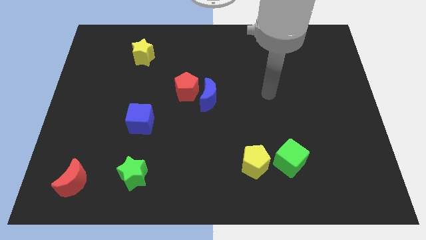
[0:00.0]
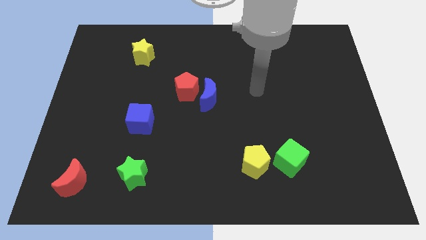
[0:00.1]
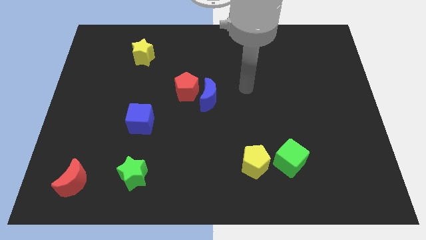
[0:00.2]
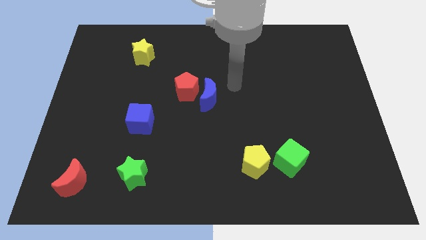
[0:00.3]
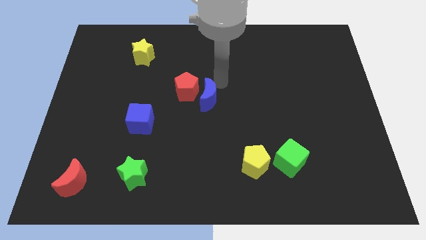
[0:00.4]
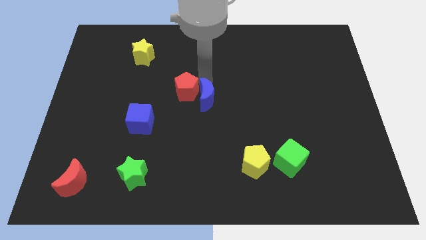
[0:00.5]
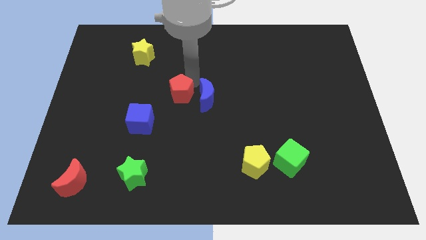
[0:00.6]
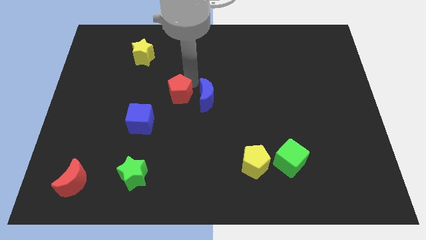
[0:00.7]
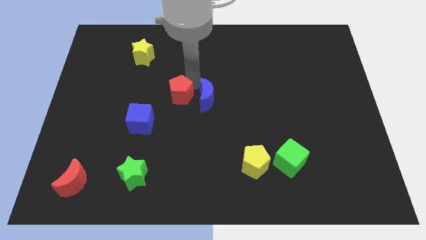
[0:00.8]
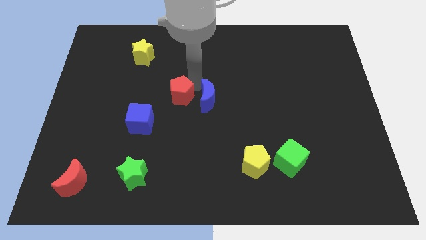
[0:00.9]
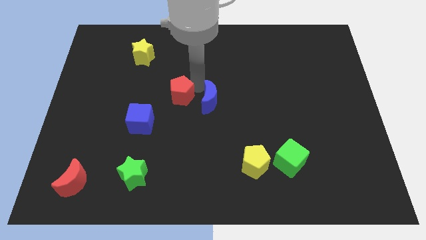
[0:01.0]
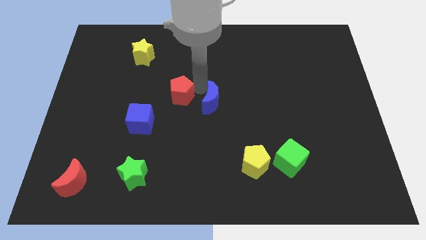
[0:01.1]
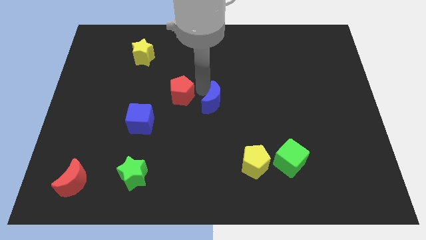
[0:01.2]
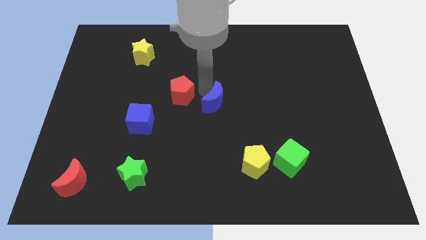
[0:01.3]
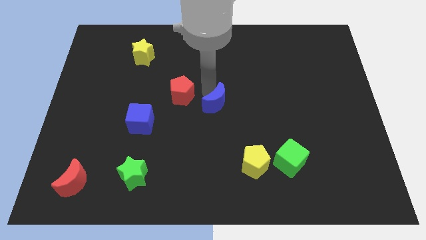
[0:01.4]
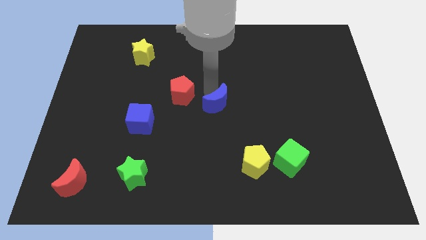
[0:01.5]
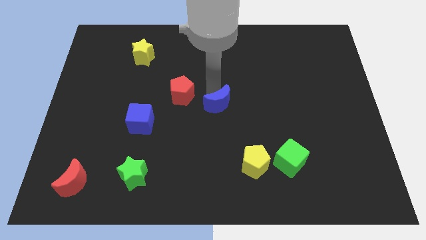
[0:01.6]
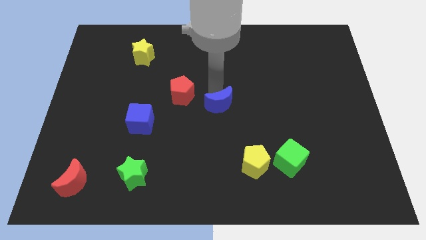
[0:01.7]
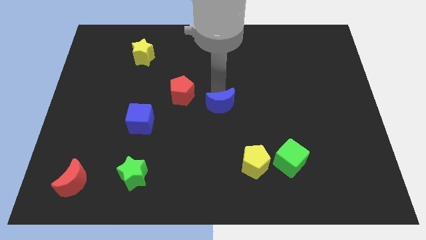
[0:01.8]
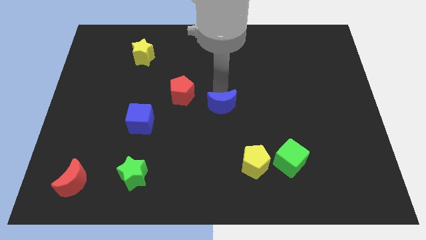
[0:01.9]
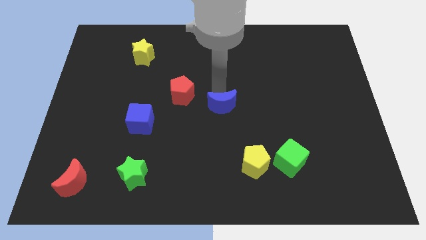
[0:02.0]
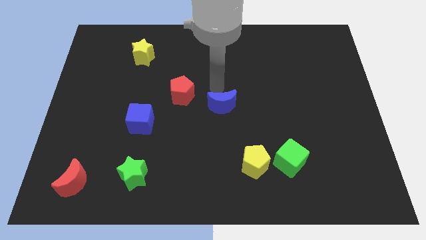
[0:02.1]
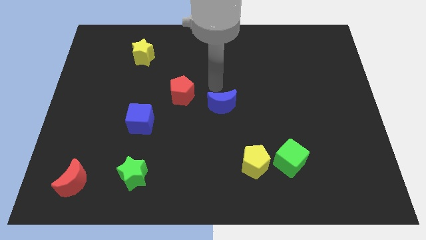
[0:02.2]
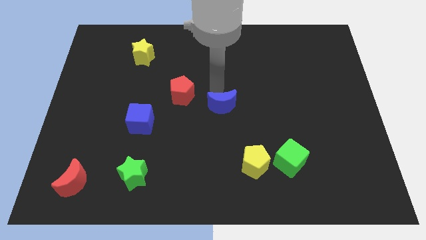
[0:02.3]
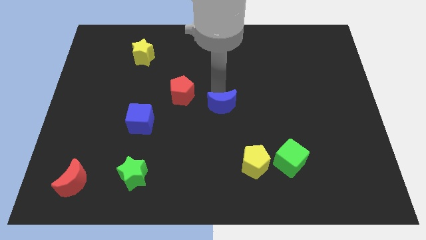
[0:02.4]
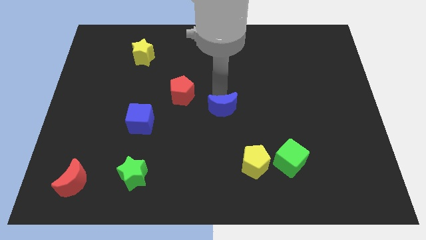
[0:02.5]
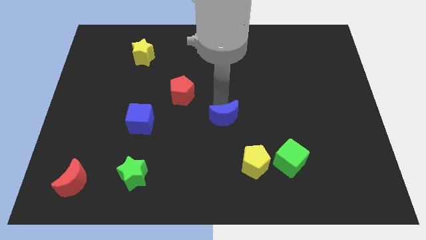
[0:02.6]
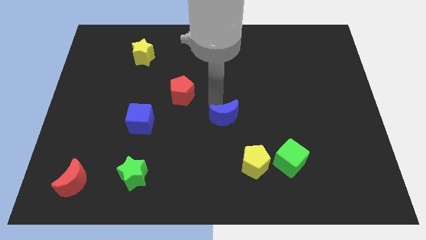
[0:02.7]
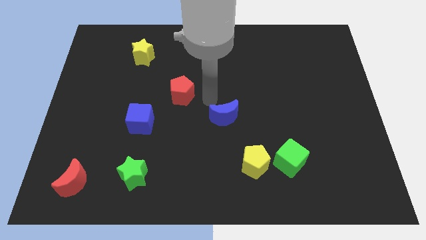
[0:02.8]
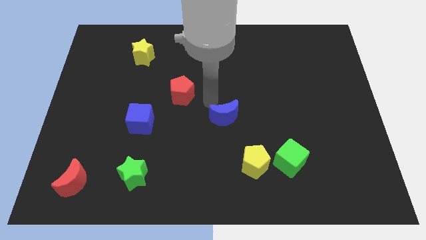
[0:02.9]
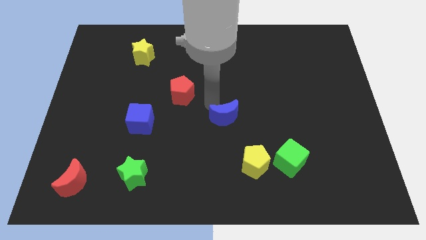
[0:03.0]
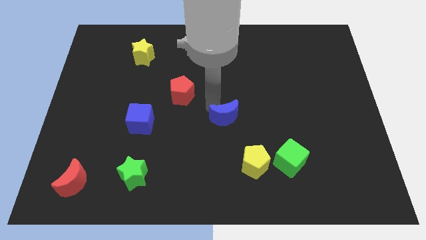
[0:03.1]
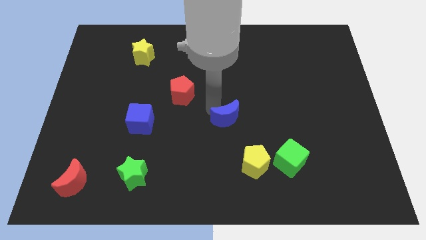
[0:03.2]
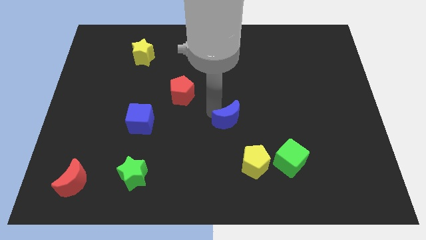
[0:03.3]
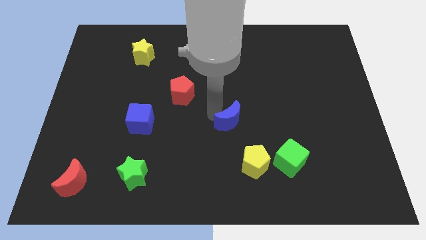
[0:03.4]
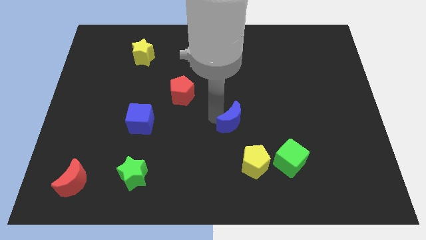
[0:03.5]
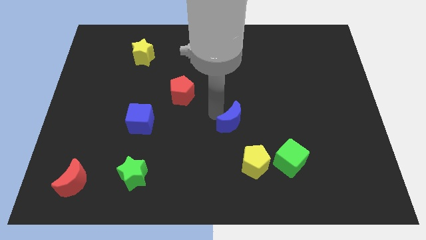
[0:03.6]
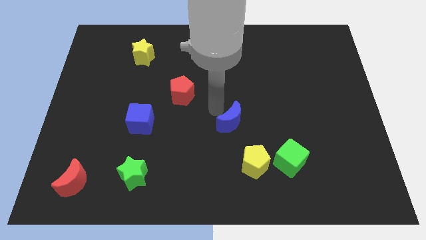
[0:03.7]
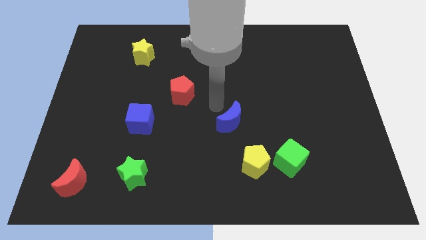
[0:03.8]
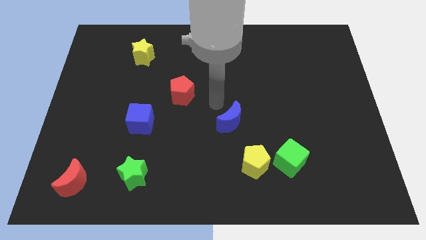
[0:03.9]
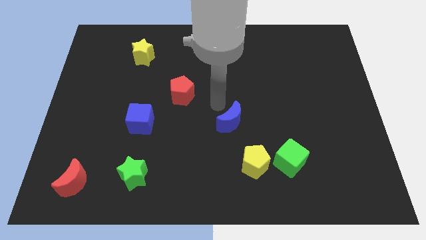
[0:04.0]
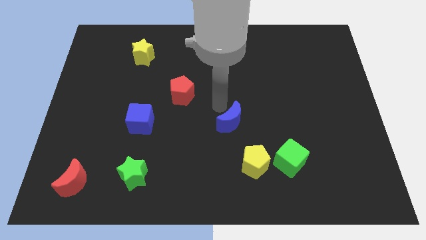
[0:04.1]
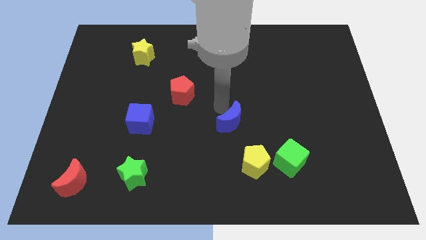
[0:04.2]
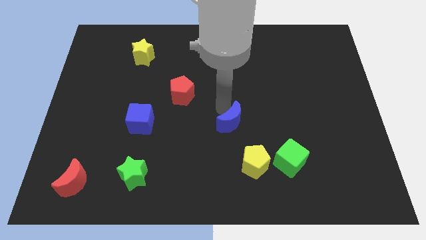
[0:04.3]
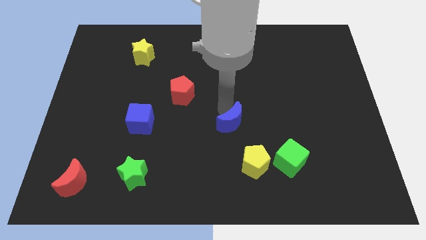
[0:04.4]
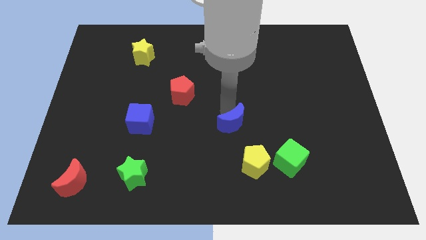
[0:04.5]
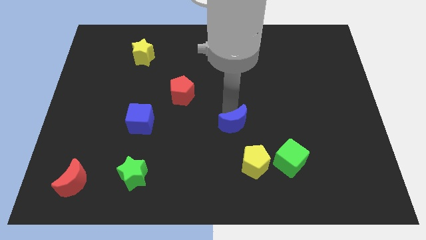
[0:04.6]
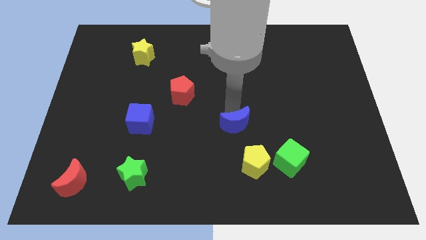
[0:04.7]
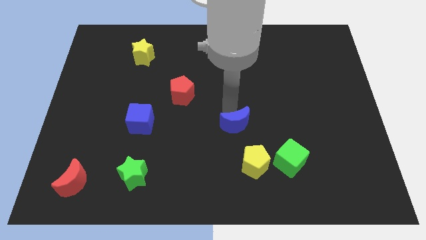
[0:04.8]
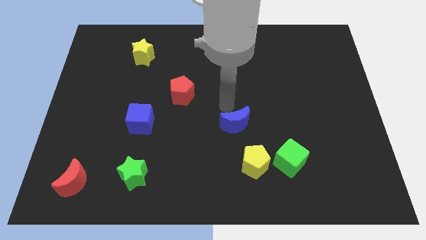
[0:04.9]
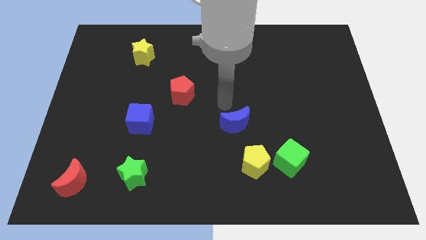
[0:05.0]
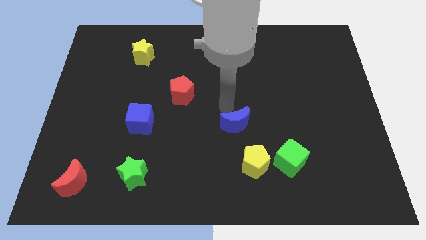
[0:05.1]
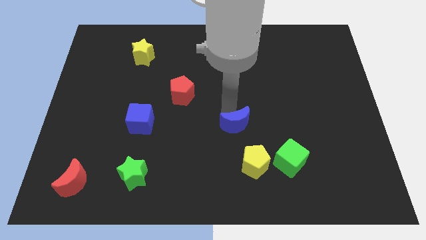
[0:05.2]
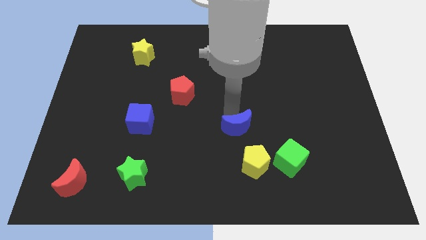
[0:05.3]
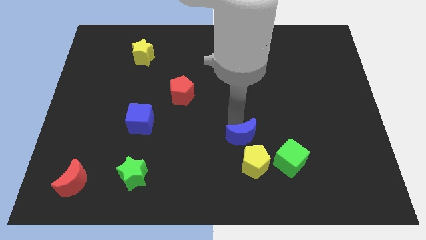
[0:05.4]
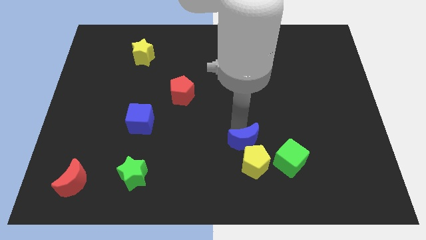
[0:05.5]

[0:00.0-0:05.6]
put the blue moon next to the yellow pentagon

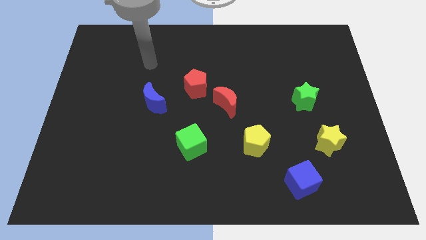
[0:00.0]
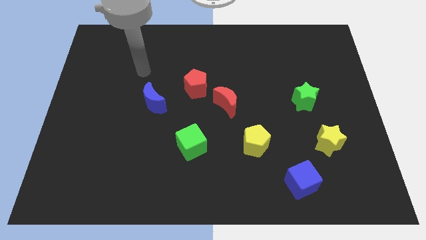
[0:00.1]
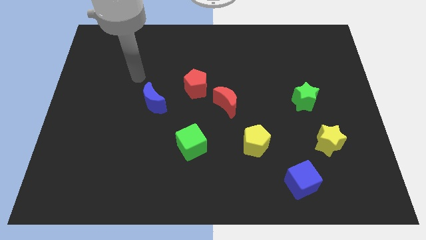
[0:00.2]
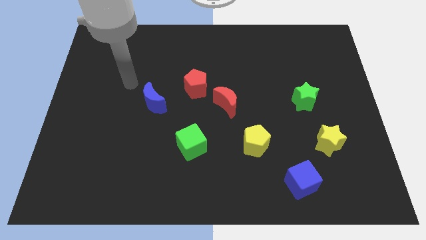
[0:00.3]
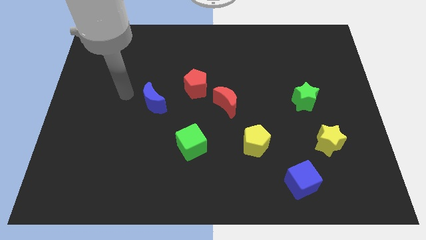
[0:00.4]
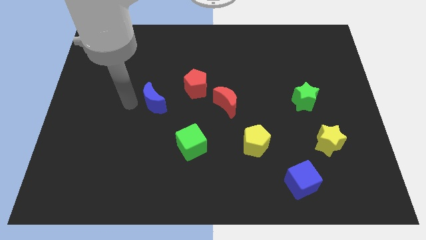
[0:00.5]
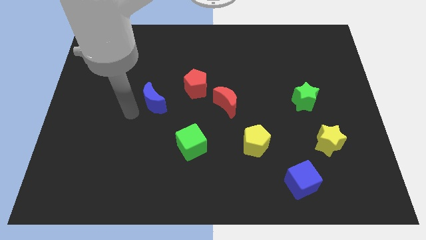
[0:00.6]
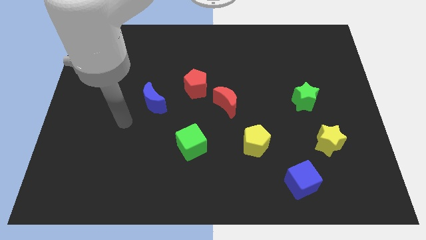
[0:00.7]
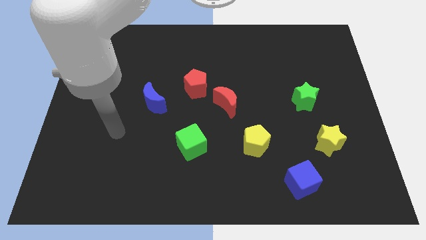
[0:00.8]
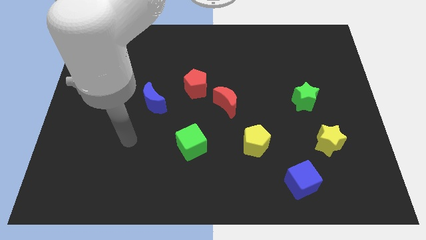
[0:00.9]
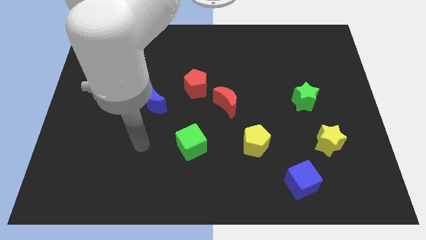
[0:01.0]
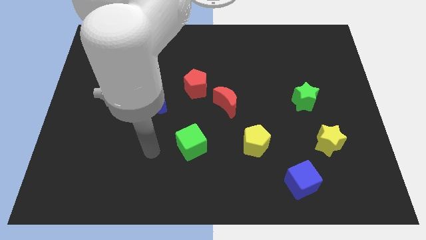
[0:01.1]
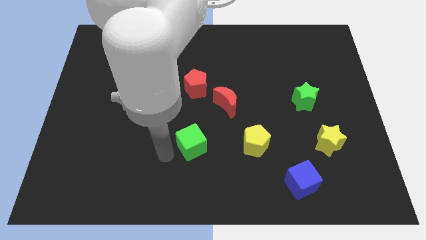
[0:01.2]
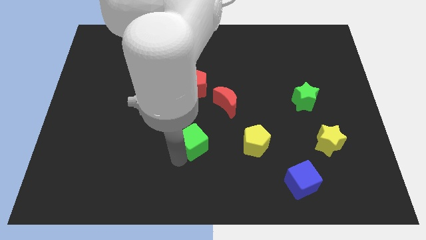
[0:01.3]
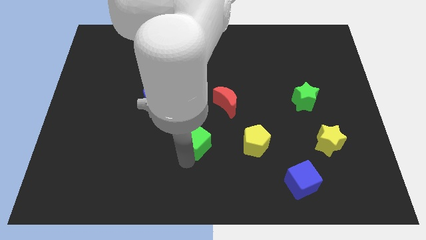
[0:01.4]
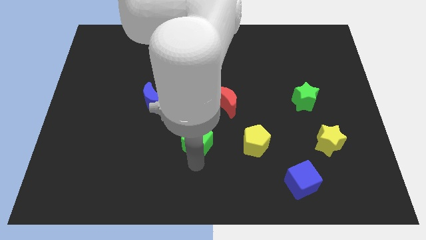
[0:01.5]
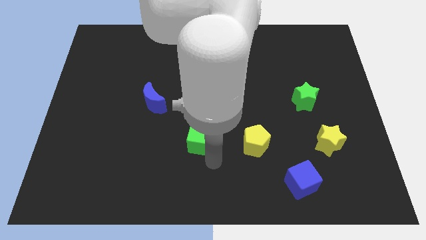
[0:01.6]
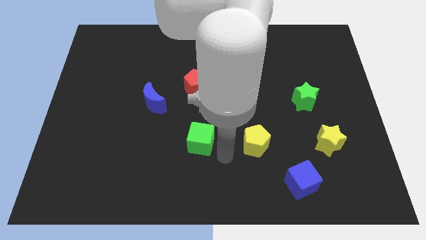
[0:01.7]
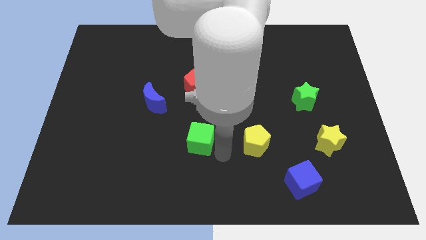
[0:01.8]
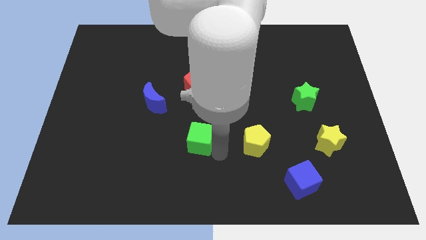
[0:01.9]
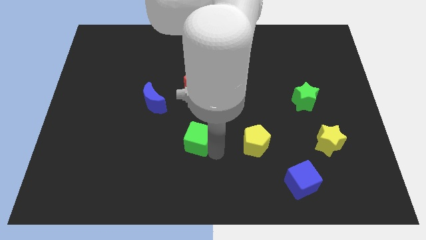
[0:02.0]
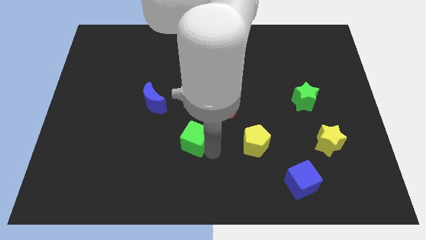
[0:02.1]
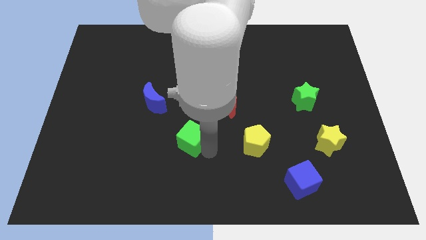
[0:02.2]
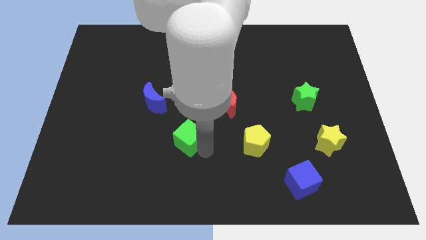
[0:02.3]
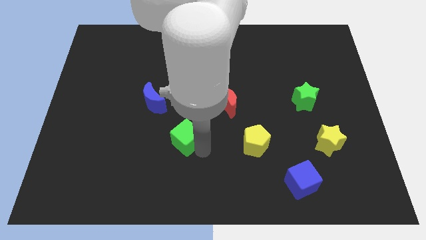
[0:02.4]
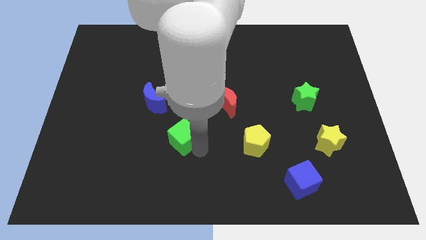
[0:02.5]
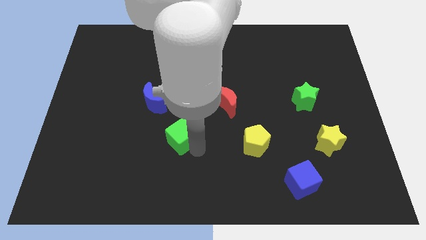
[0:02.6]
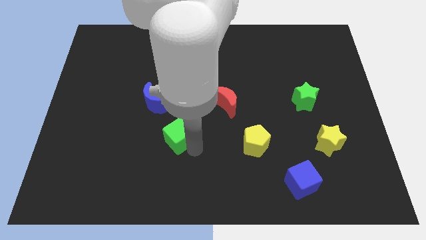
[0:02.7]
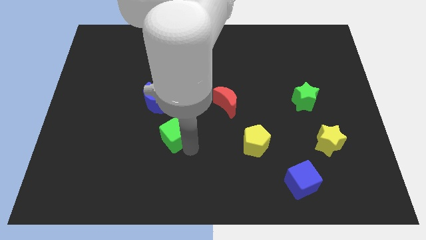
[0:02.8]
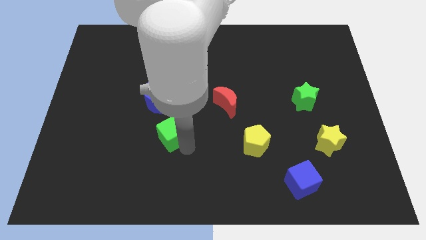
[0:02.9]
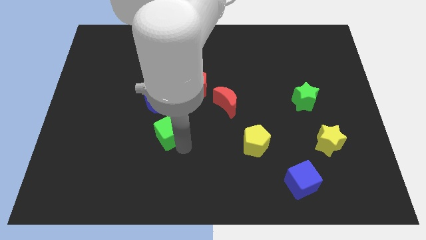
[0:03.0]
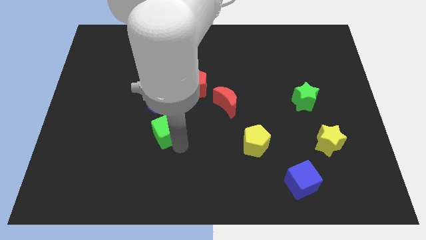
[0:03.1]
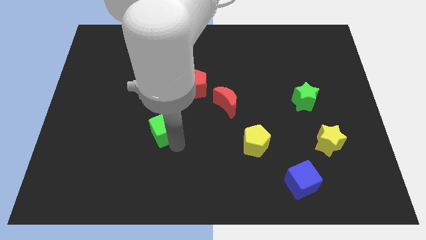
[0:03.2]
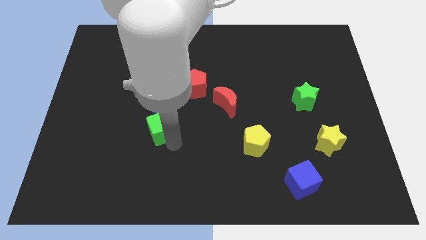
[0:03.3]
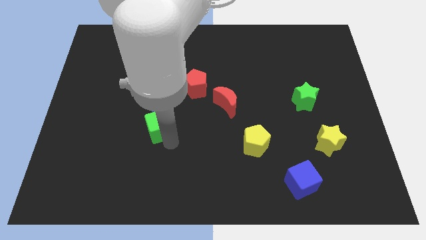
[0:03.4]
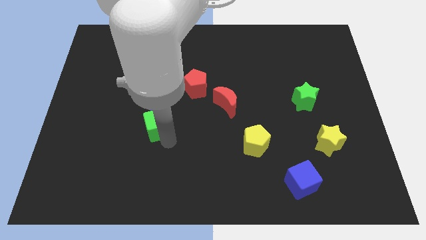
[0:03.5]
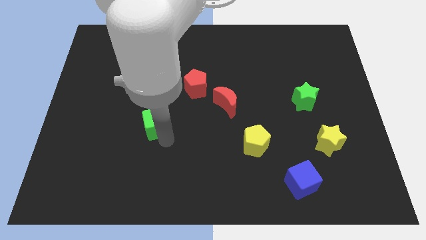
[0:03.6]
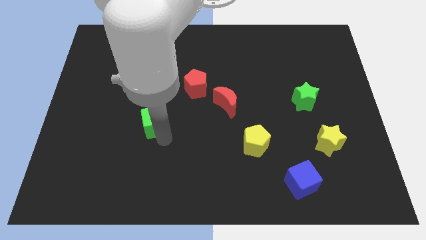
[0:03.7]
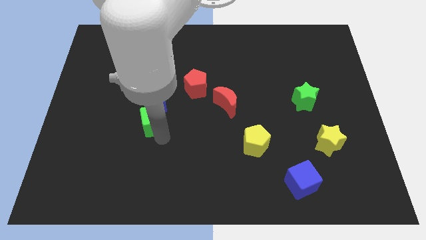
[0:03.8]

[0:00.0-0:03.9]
slide the green cube towards the blue moon
